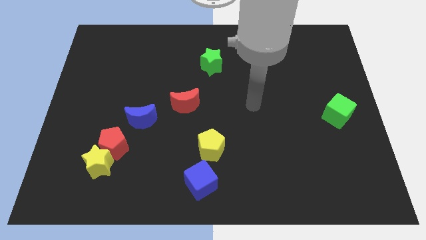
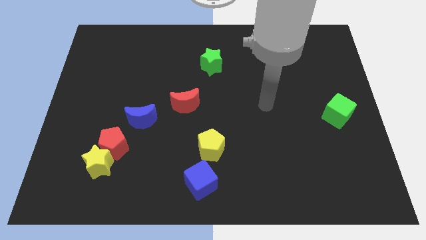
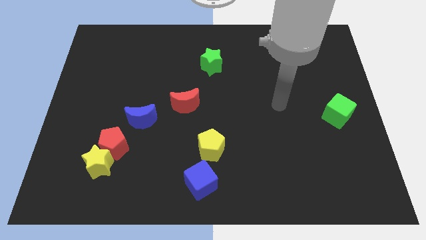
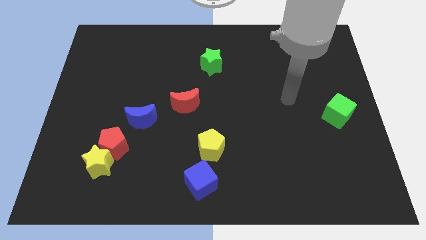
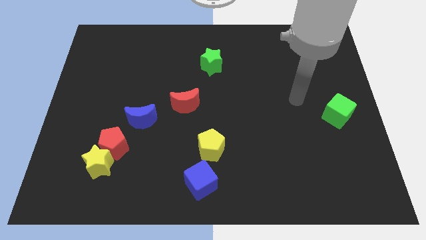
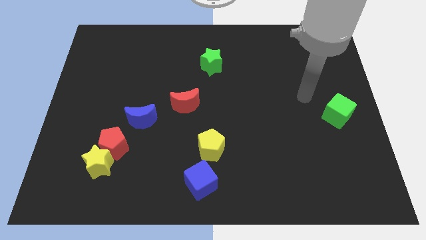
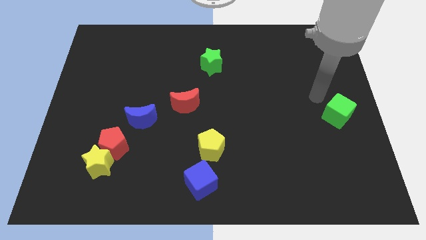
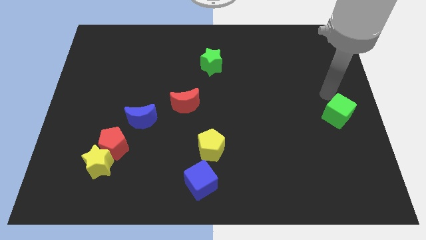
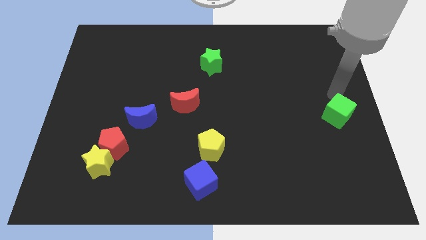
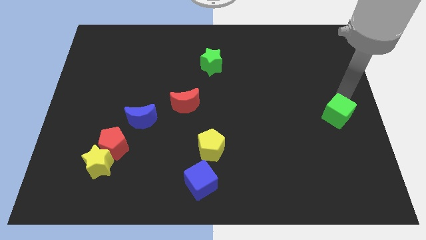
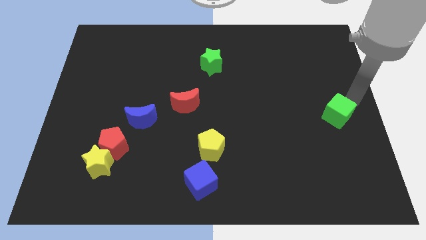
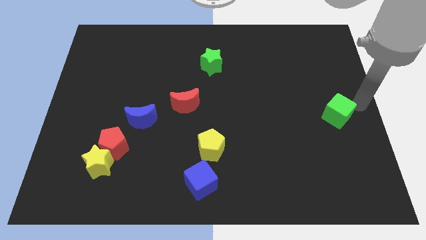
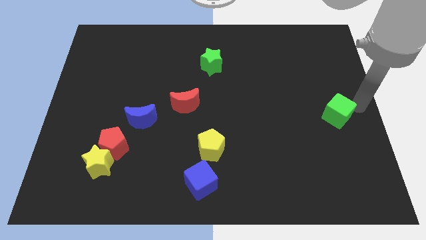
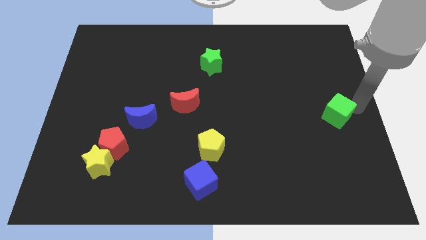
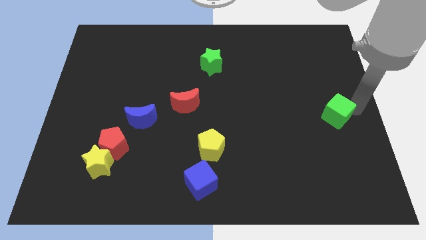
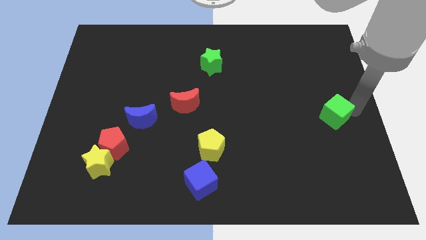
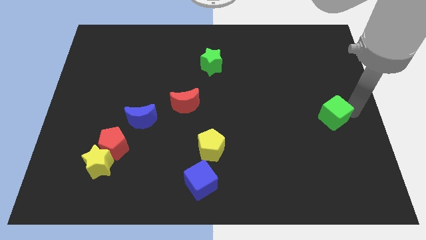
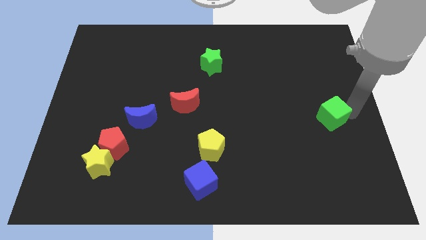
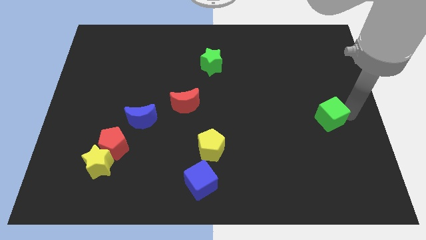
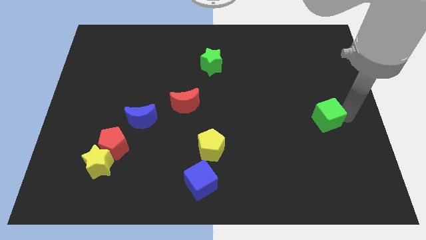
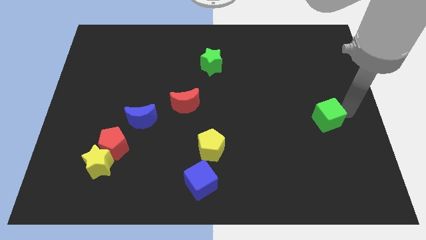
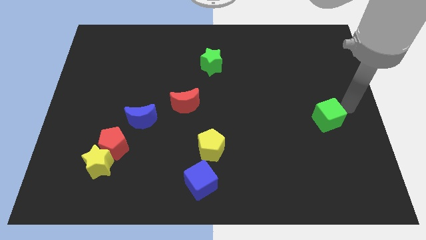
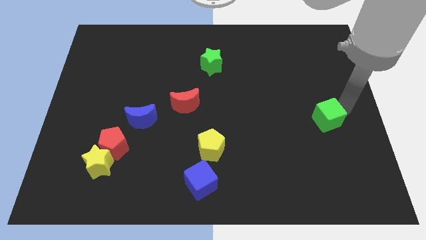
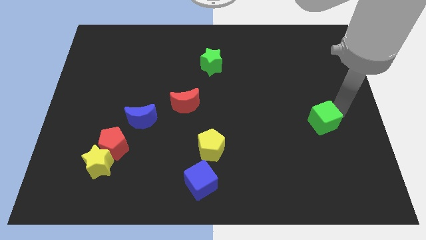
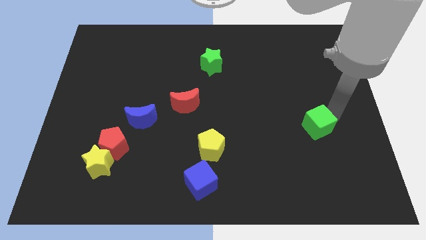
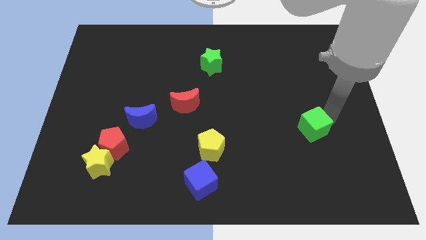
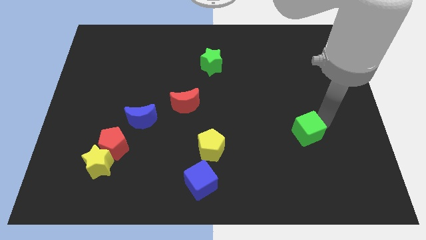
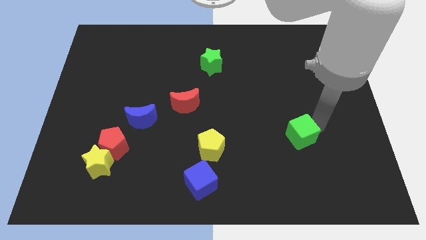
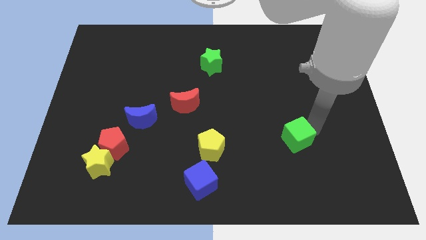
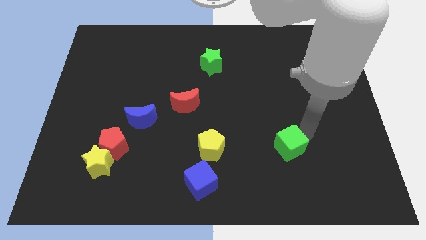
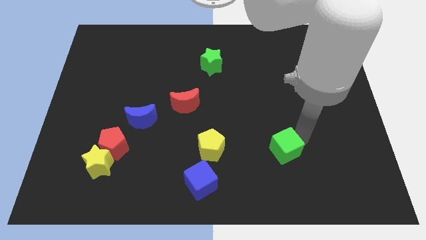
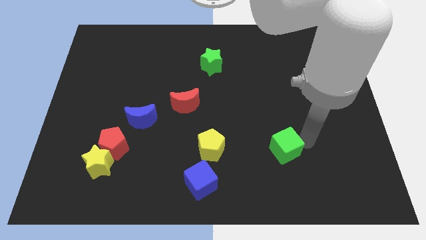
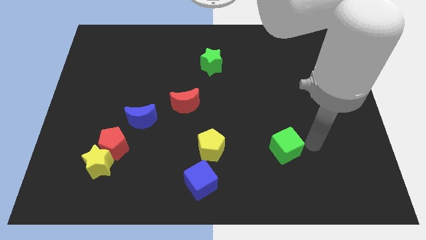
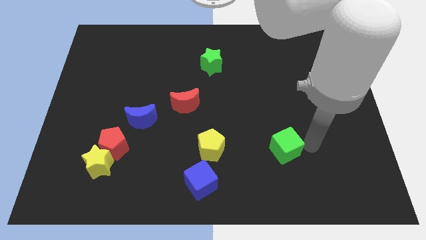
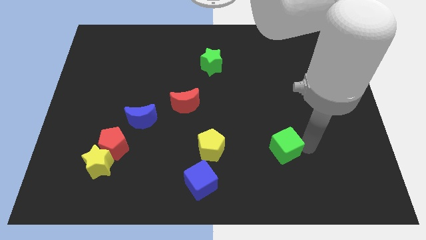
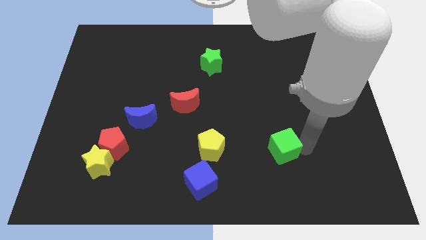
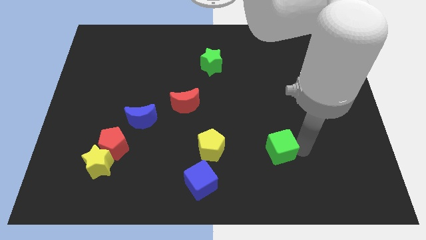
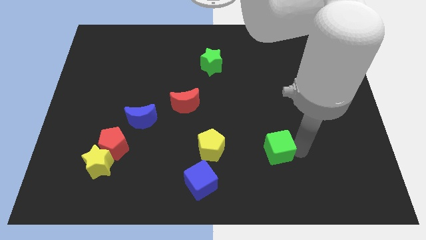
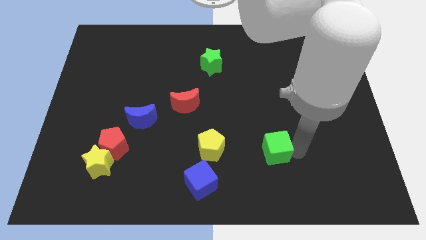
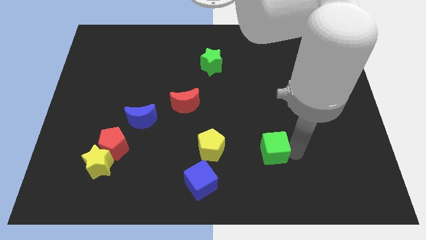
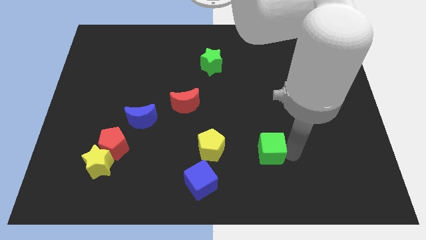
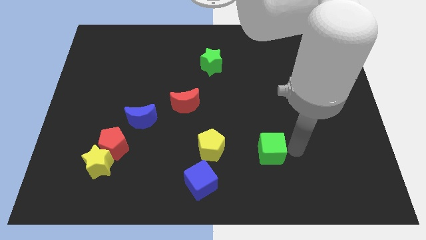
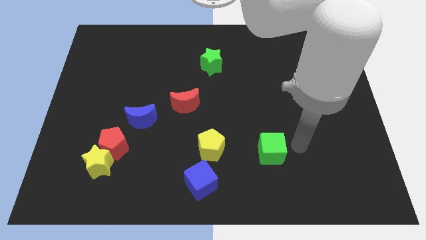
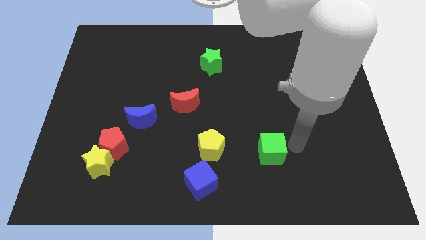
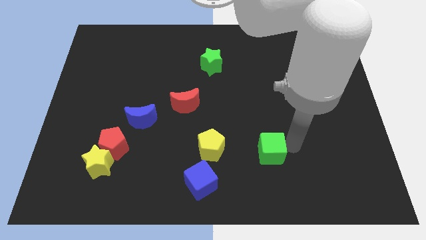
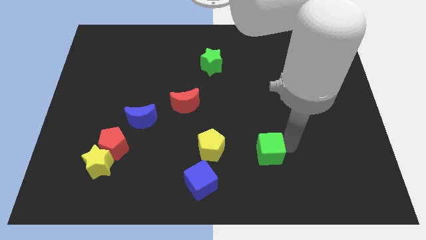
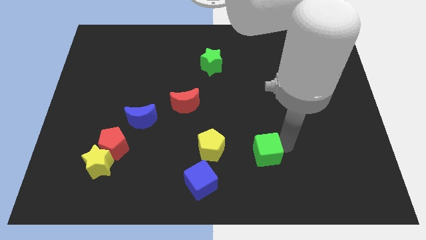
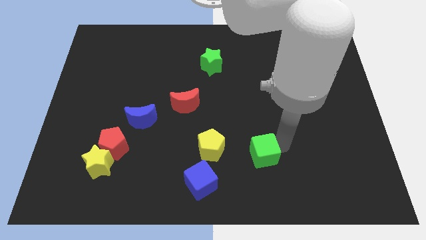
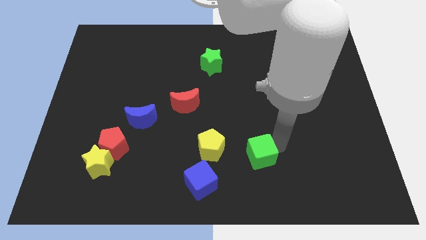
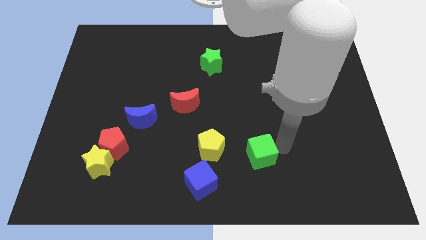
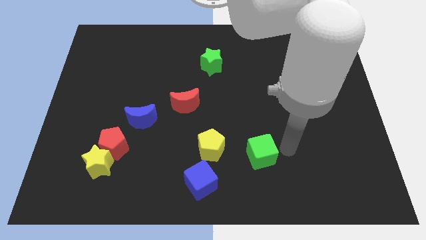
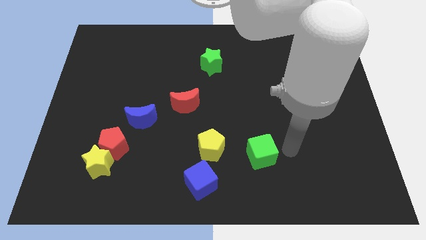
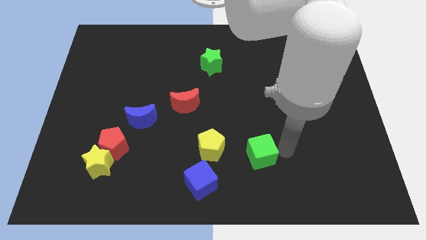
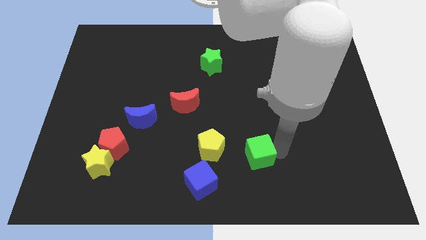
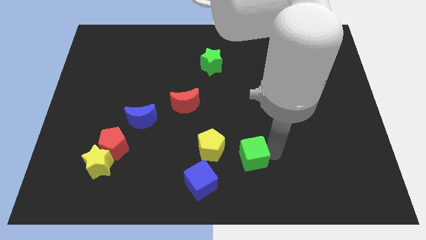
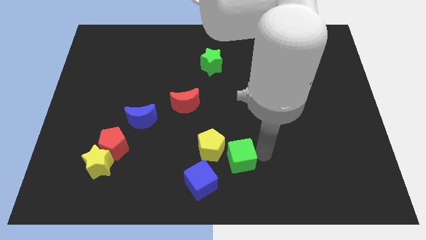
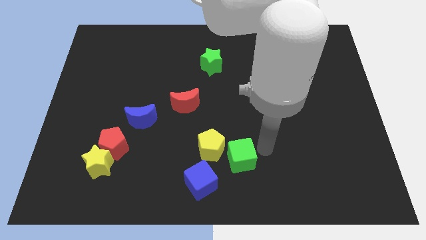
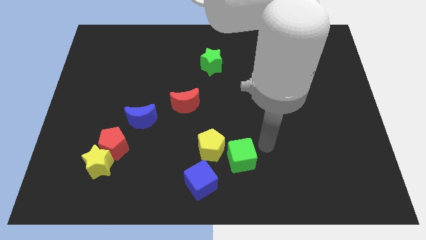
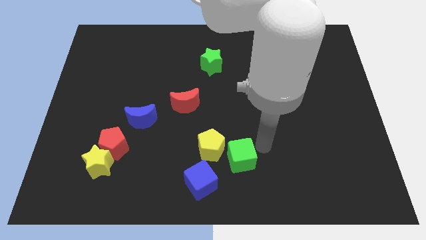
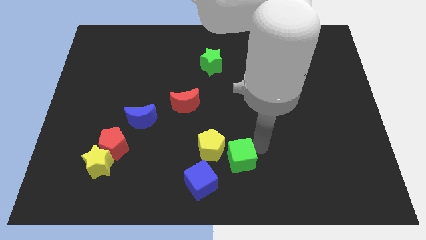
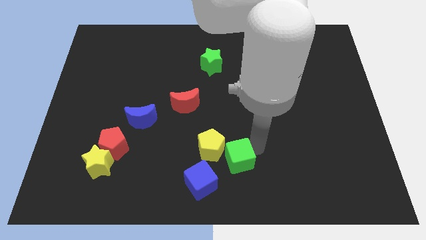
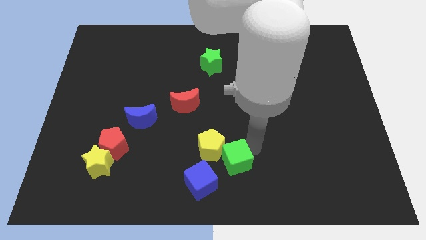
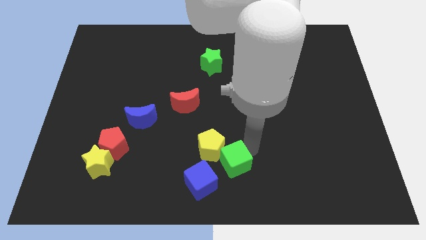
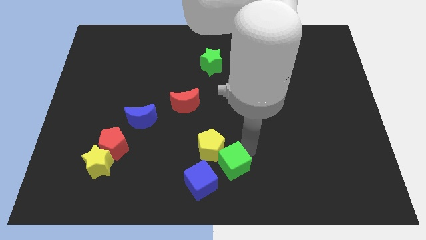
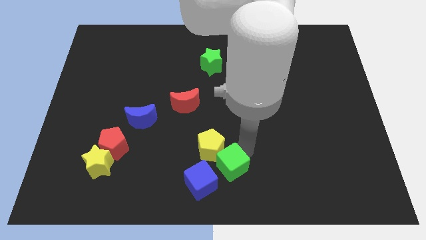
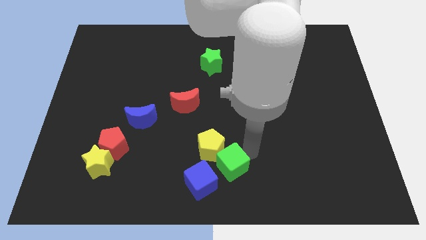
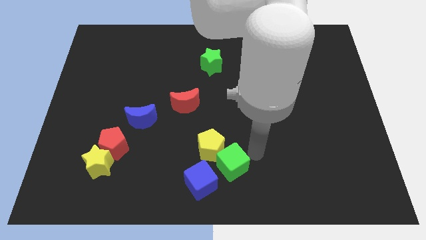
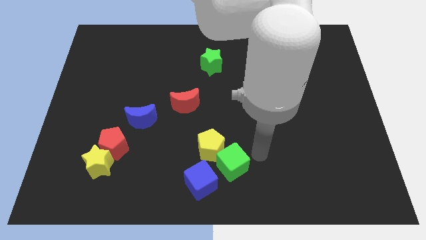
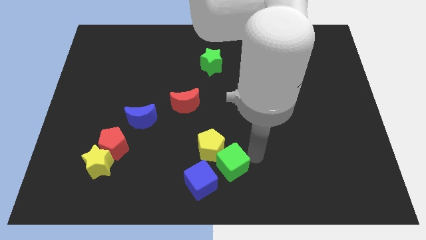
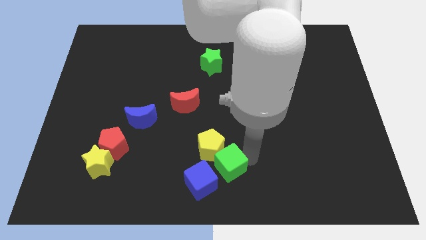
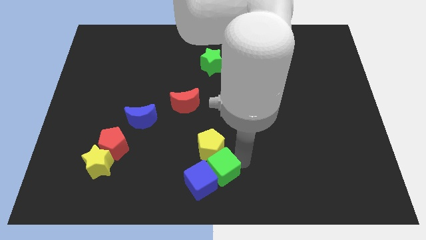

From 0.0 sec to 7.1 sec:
put the green cube close to the blue cube
